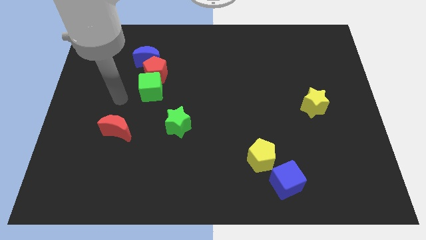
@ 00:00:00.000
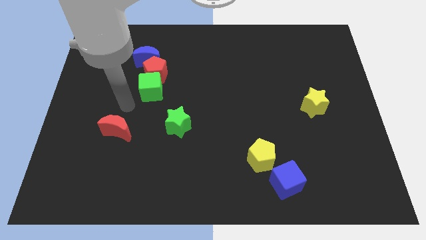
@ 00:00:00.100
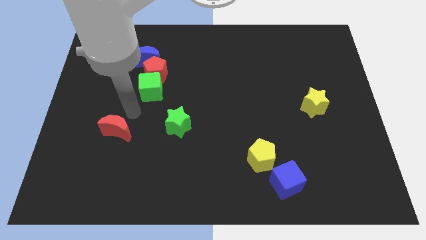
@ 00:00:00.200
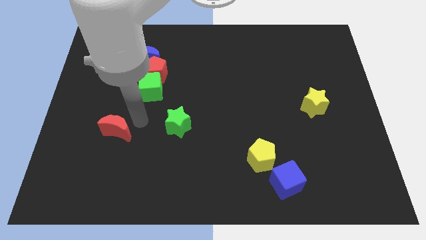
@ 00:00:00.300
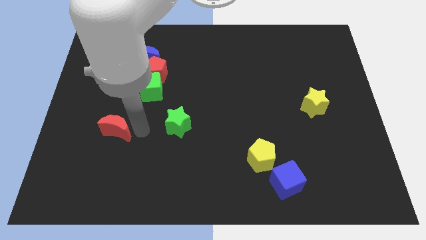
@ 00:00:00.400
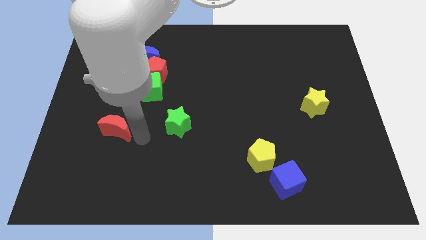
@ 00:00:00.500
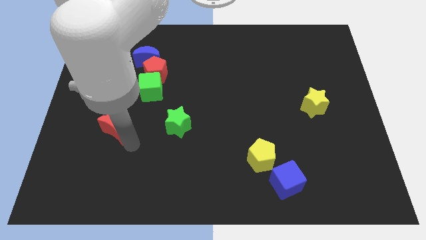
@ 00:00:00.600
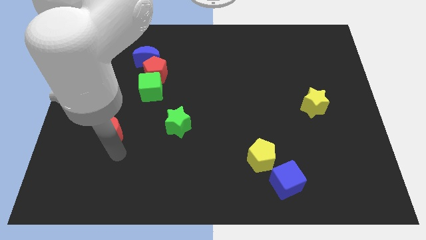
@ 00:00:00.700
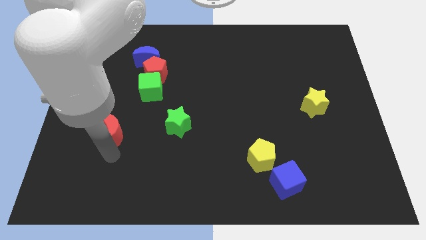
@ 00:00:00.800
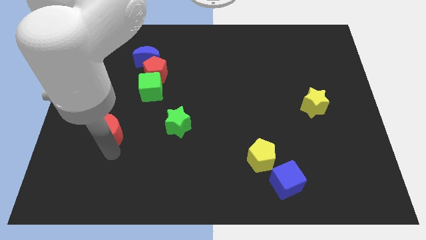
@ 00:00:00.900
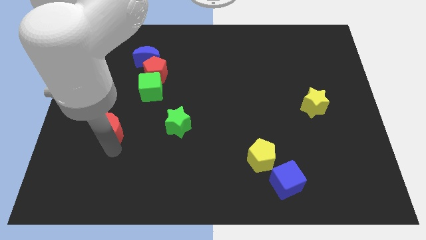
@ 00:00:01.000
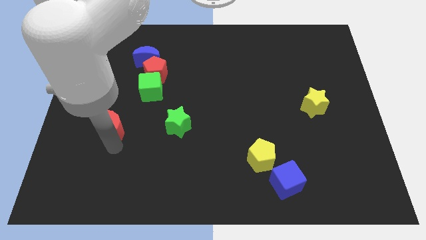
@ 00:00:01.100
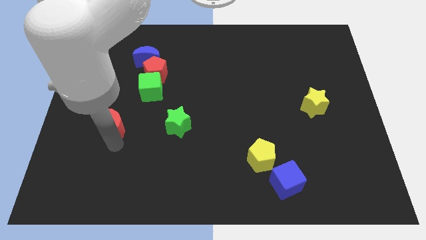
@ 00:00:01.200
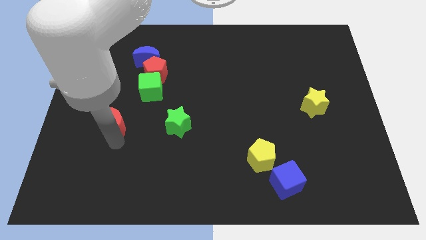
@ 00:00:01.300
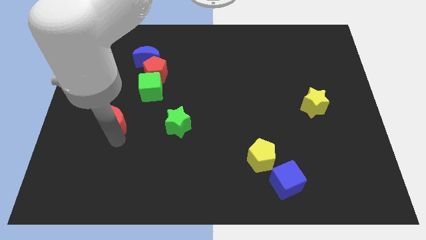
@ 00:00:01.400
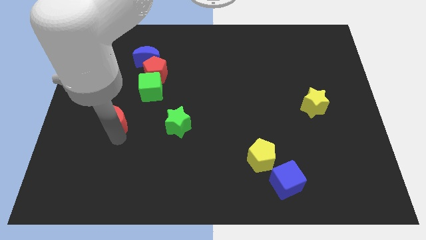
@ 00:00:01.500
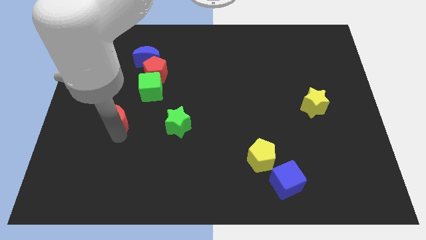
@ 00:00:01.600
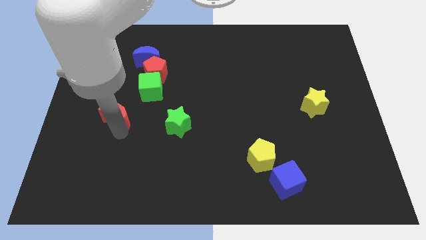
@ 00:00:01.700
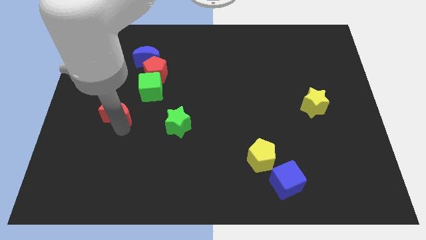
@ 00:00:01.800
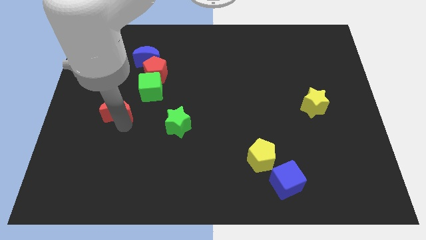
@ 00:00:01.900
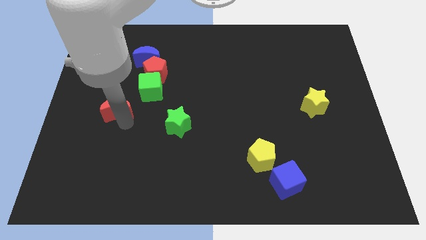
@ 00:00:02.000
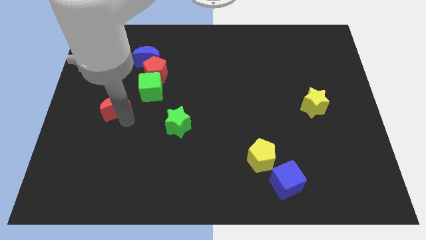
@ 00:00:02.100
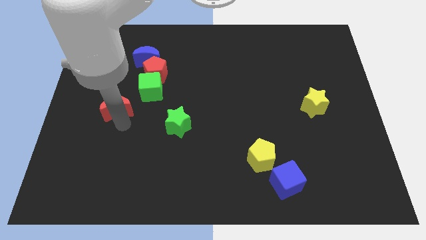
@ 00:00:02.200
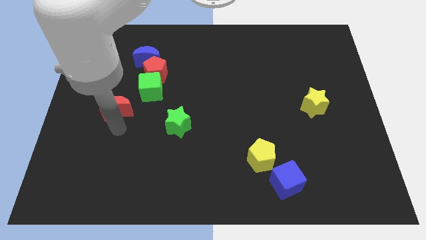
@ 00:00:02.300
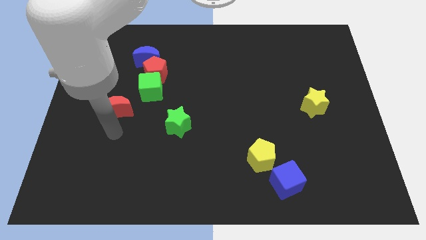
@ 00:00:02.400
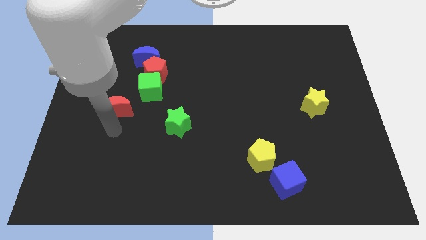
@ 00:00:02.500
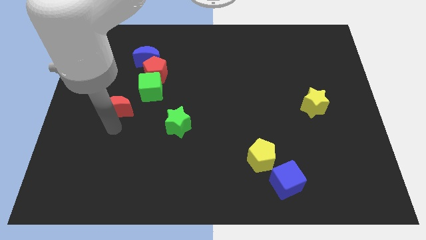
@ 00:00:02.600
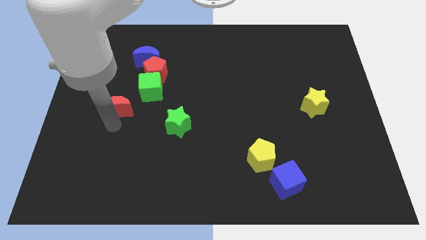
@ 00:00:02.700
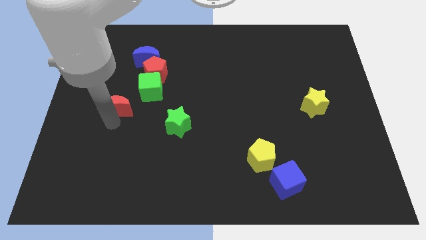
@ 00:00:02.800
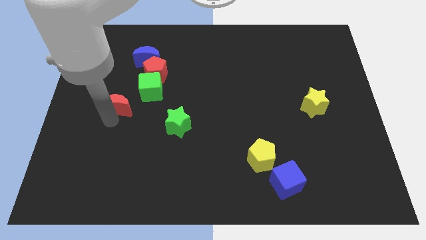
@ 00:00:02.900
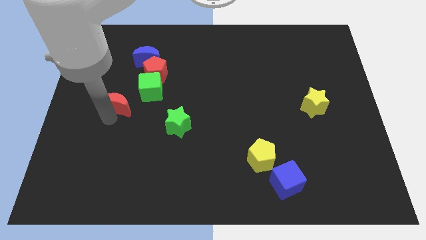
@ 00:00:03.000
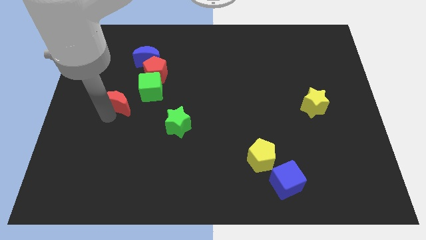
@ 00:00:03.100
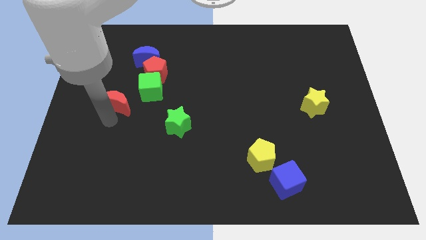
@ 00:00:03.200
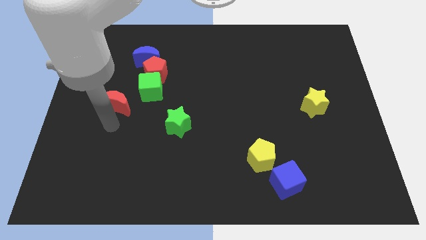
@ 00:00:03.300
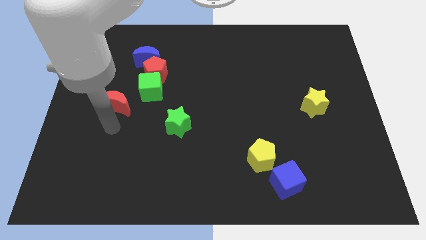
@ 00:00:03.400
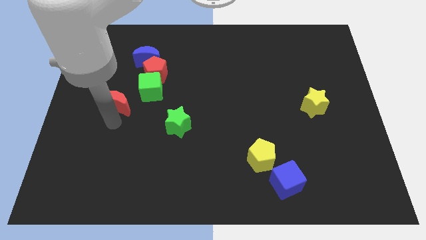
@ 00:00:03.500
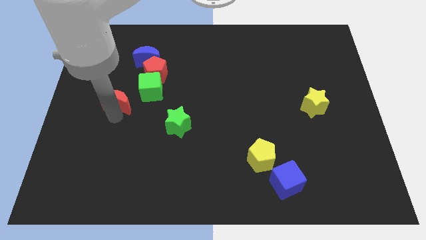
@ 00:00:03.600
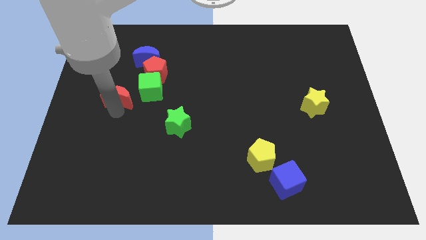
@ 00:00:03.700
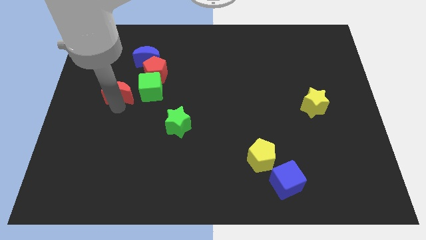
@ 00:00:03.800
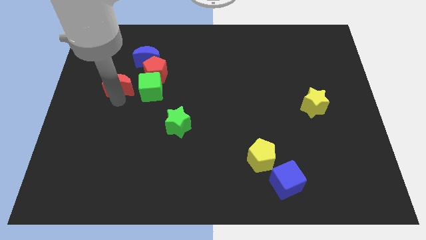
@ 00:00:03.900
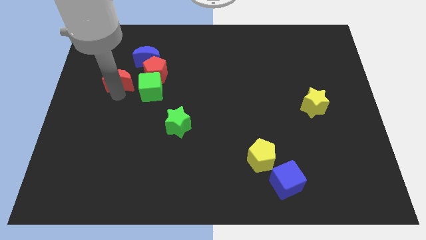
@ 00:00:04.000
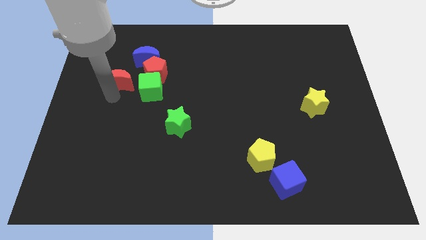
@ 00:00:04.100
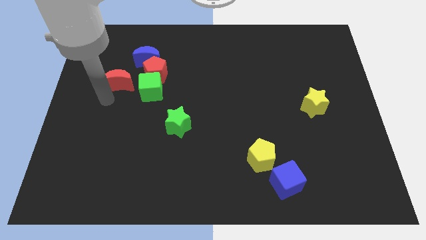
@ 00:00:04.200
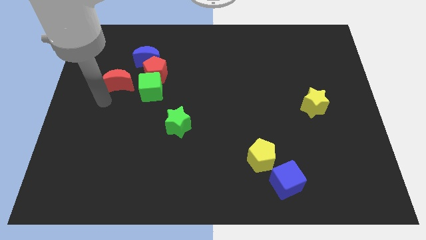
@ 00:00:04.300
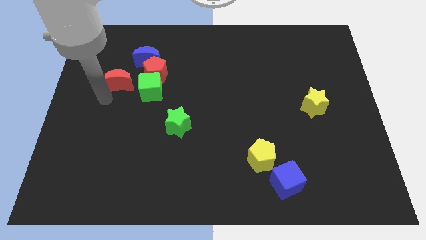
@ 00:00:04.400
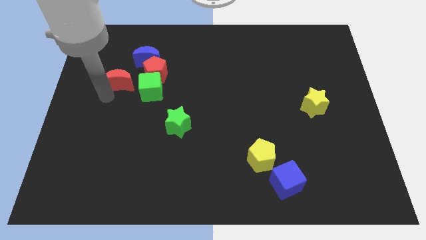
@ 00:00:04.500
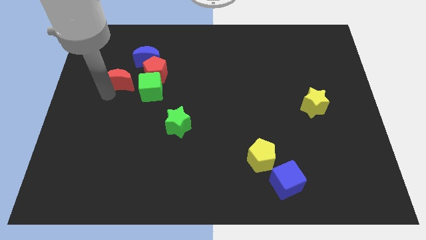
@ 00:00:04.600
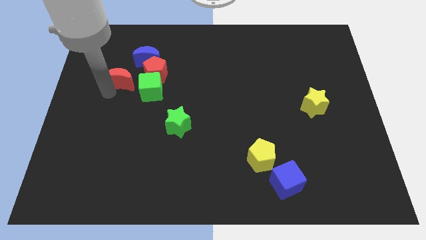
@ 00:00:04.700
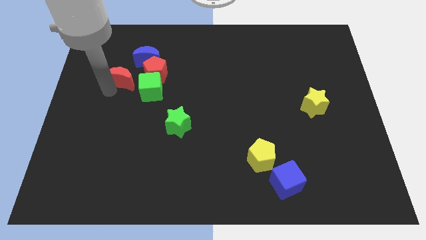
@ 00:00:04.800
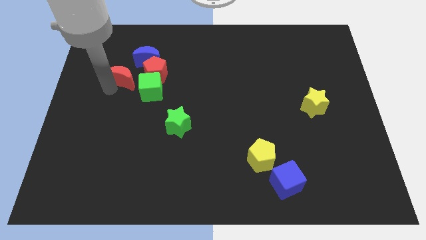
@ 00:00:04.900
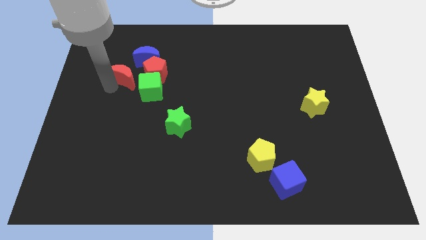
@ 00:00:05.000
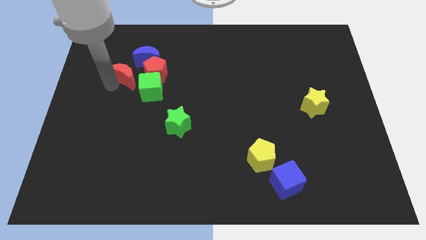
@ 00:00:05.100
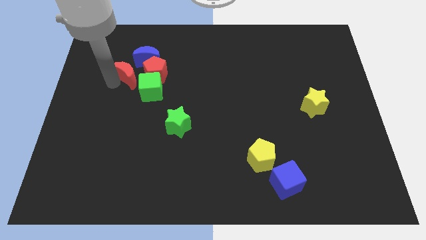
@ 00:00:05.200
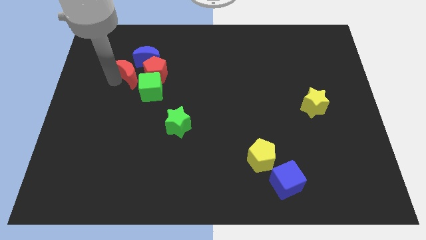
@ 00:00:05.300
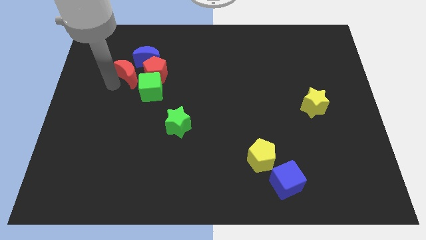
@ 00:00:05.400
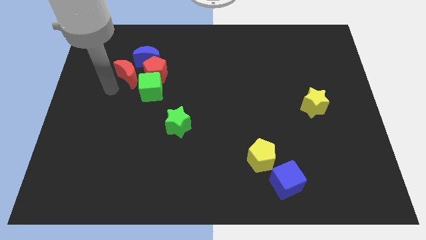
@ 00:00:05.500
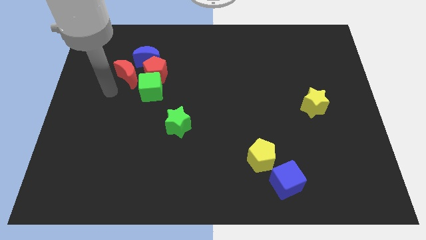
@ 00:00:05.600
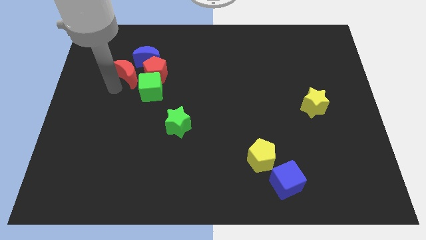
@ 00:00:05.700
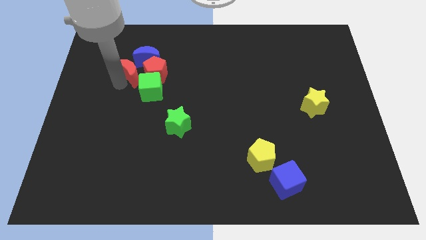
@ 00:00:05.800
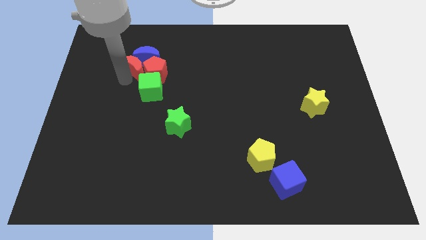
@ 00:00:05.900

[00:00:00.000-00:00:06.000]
slide the red moon towards the blue moon
